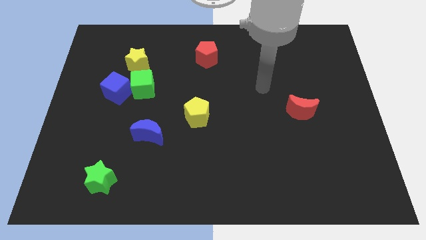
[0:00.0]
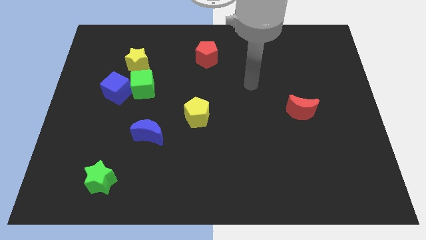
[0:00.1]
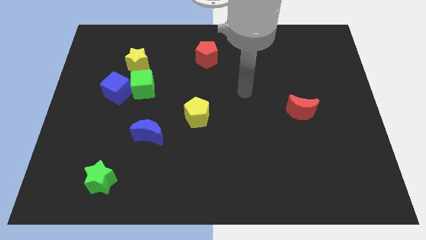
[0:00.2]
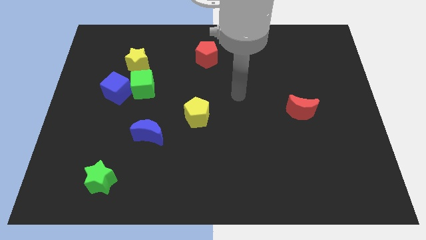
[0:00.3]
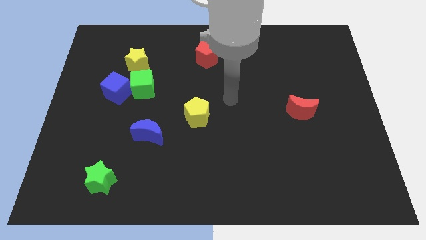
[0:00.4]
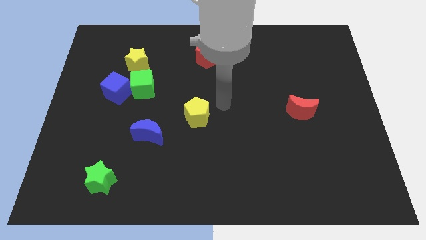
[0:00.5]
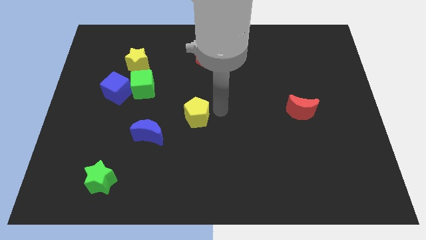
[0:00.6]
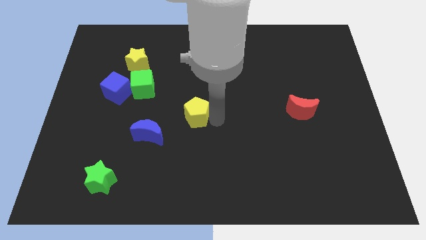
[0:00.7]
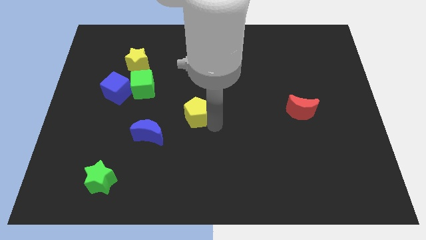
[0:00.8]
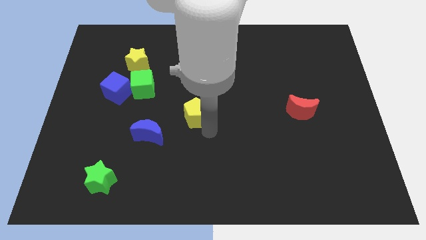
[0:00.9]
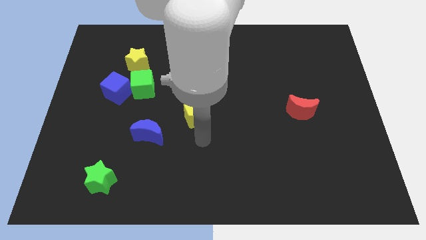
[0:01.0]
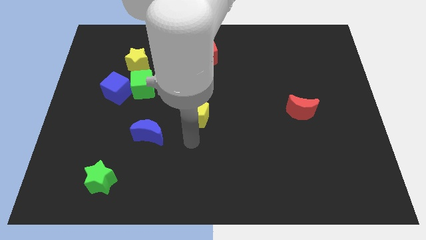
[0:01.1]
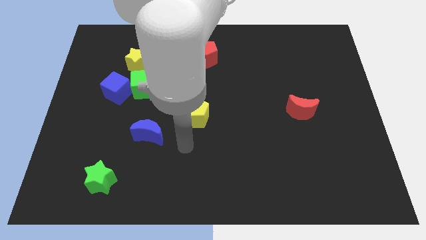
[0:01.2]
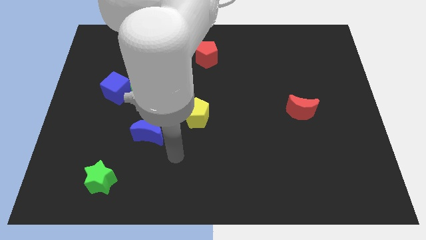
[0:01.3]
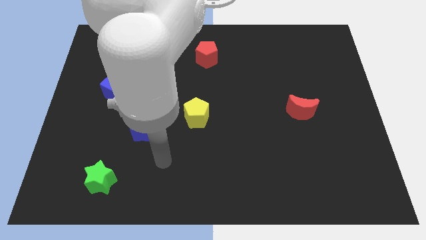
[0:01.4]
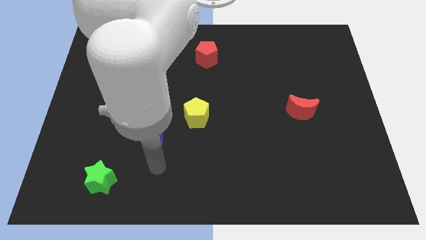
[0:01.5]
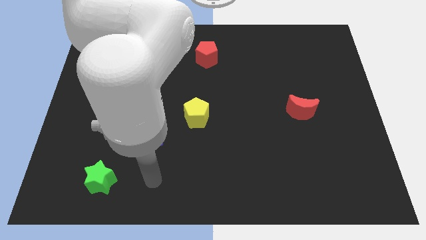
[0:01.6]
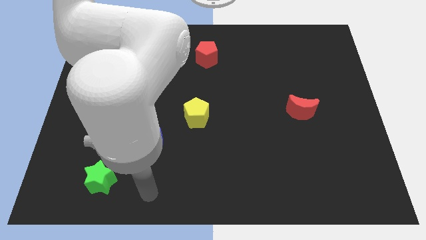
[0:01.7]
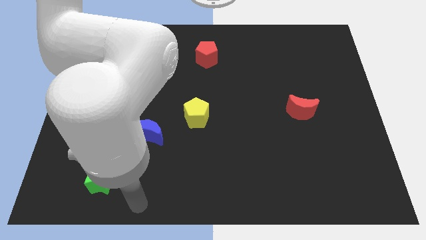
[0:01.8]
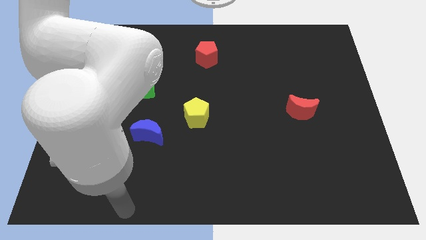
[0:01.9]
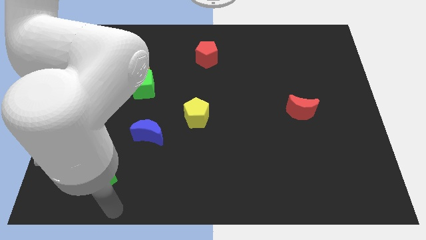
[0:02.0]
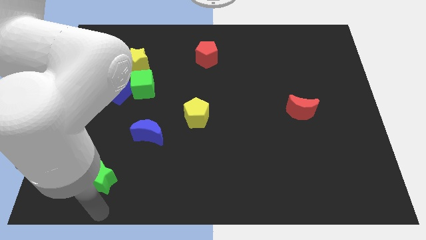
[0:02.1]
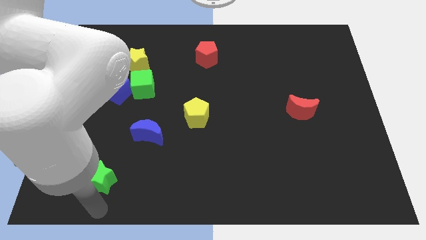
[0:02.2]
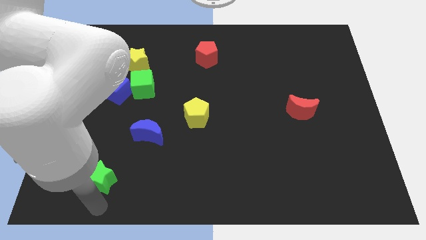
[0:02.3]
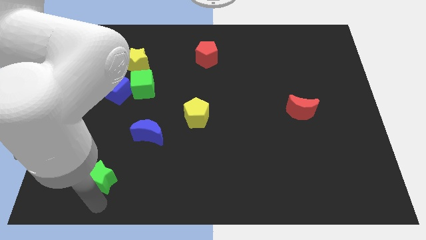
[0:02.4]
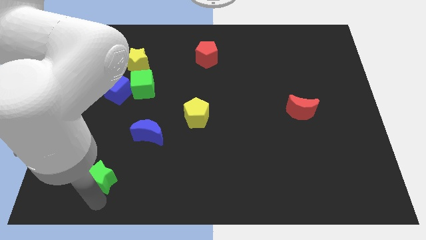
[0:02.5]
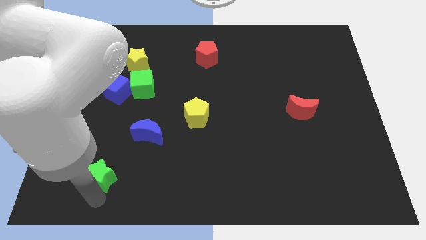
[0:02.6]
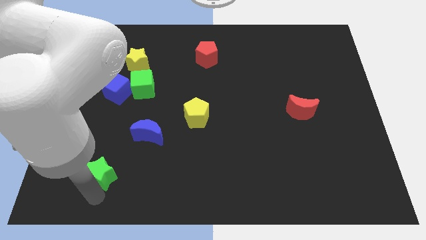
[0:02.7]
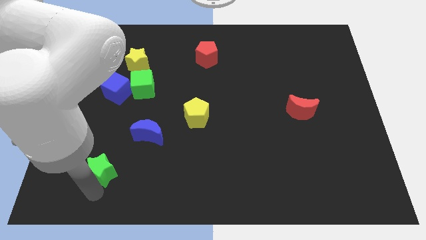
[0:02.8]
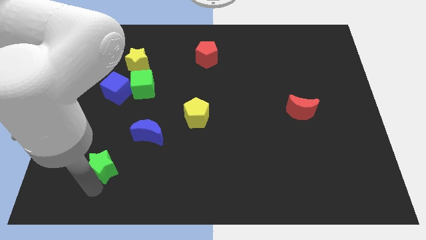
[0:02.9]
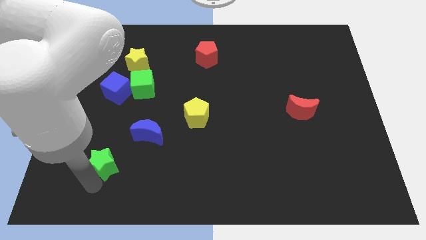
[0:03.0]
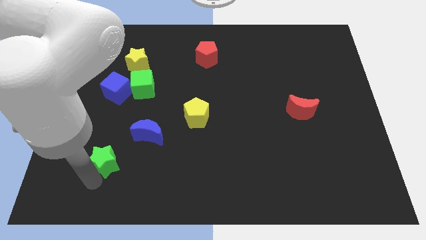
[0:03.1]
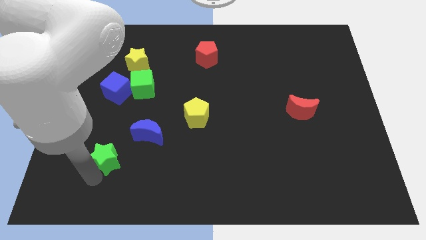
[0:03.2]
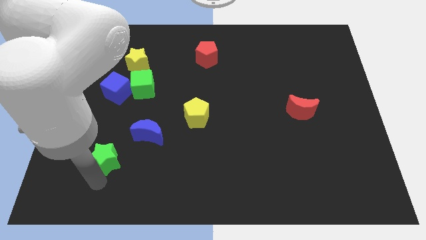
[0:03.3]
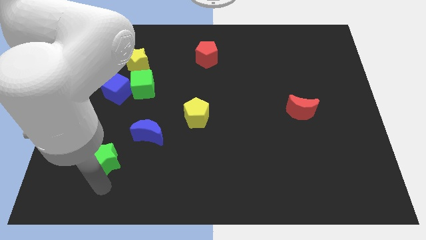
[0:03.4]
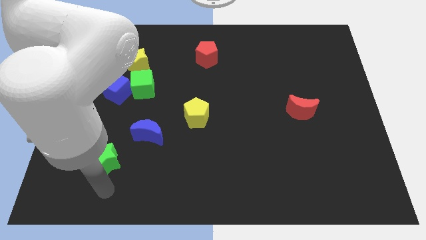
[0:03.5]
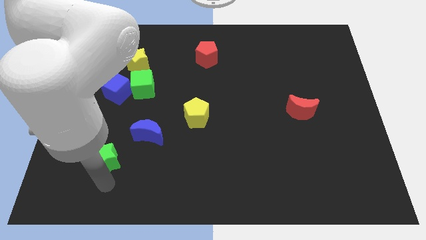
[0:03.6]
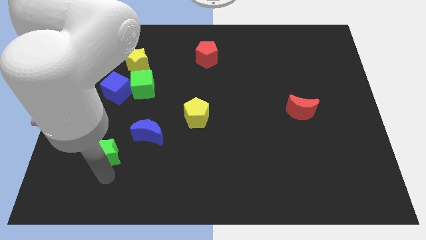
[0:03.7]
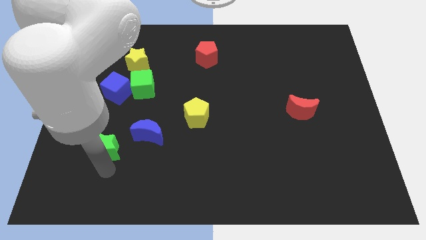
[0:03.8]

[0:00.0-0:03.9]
slide the green star upwards somewhat

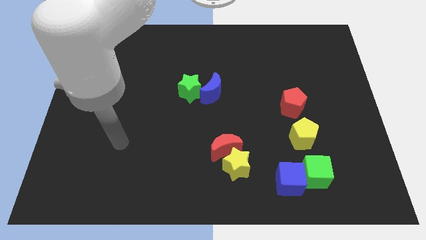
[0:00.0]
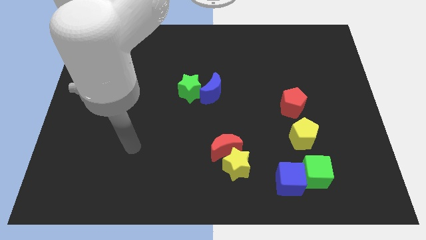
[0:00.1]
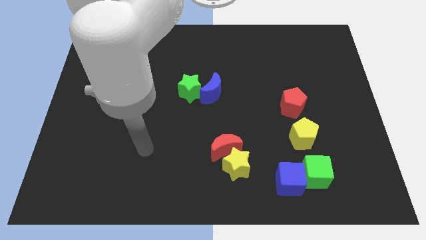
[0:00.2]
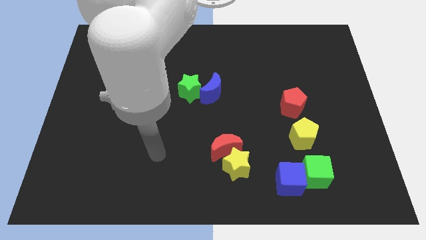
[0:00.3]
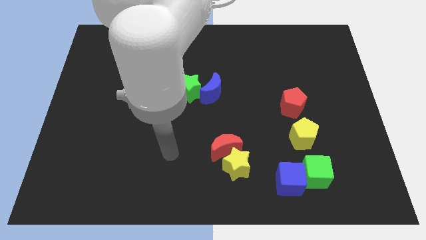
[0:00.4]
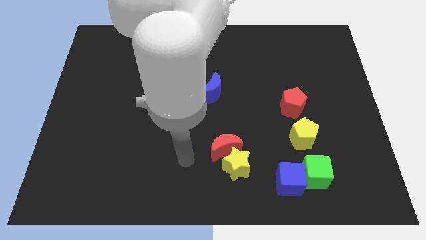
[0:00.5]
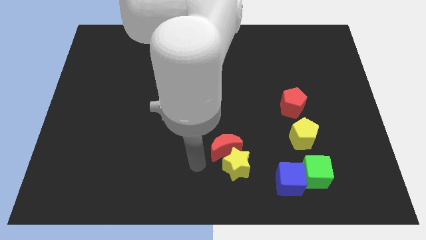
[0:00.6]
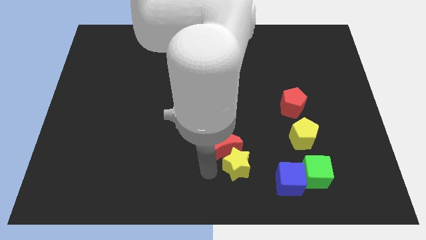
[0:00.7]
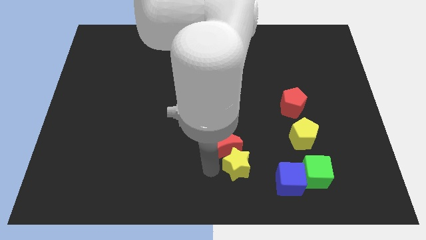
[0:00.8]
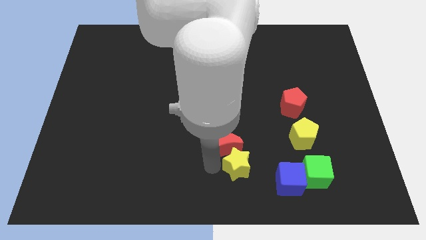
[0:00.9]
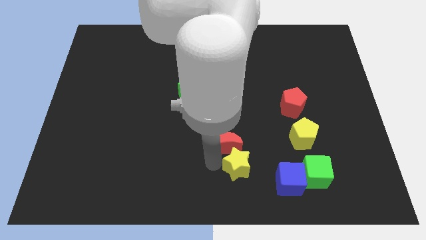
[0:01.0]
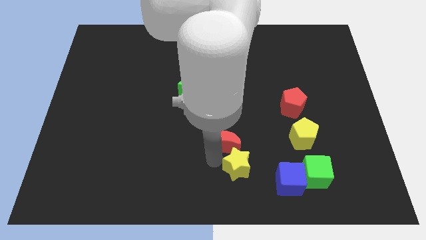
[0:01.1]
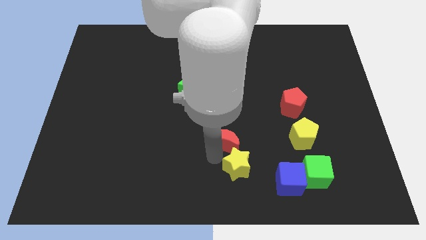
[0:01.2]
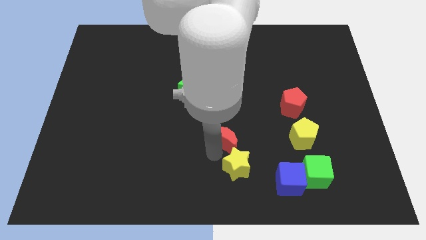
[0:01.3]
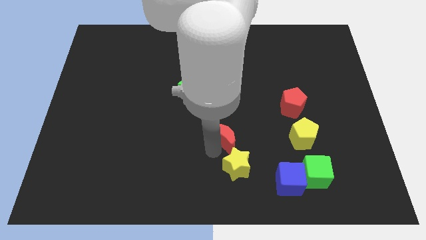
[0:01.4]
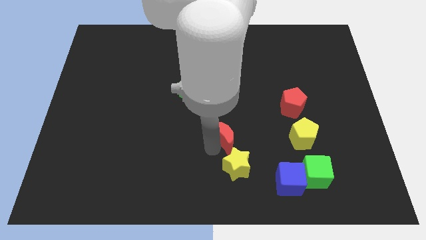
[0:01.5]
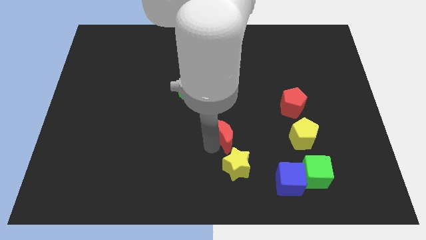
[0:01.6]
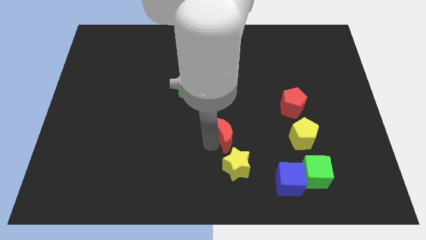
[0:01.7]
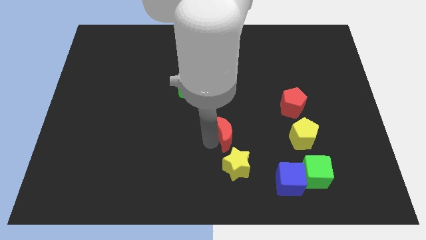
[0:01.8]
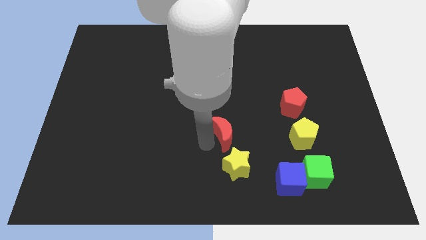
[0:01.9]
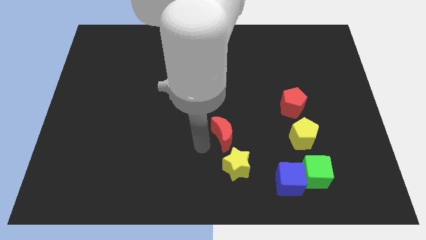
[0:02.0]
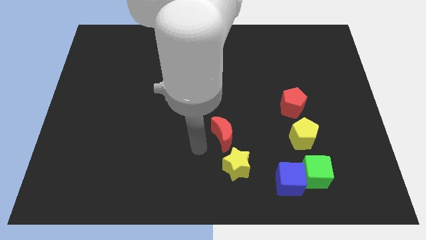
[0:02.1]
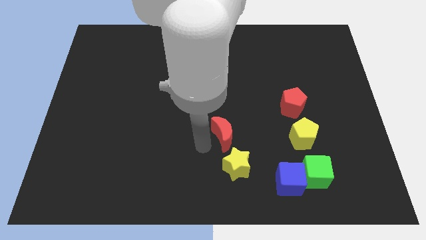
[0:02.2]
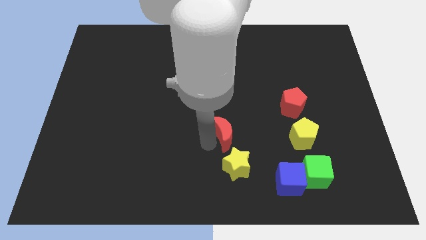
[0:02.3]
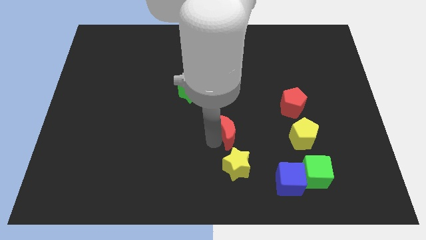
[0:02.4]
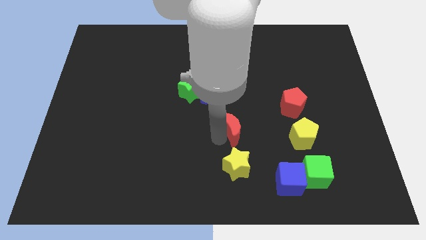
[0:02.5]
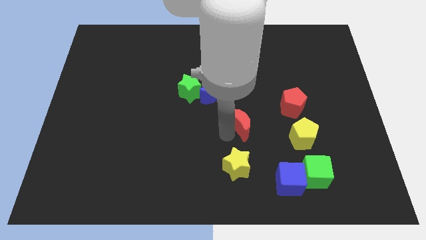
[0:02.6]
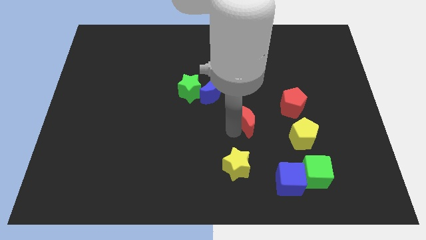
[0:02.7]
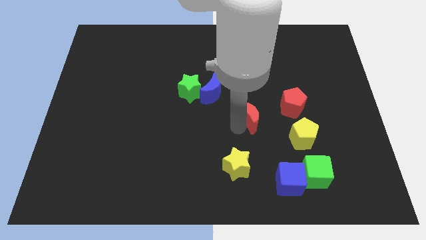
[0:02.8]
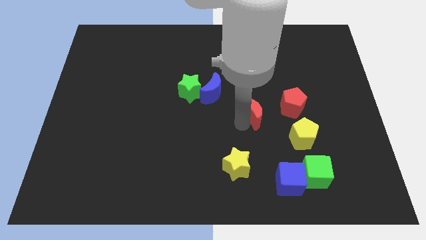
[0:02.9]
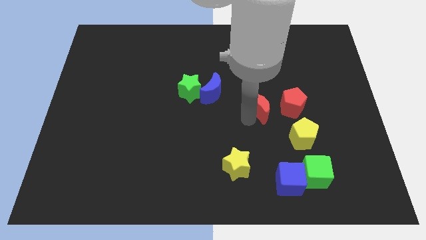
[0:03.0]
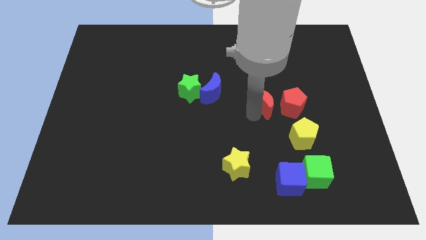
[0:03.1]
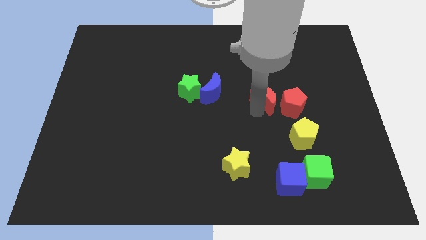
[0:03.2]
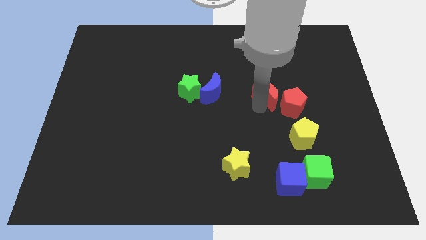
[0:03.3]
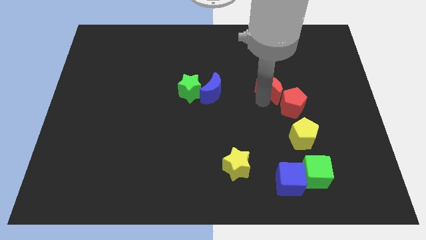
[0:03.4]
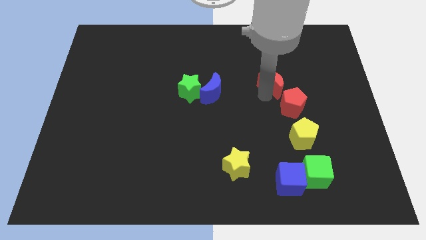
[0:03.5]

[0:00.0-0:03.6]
slide the red moon diagonally up and to the right

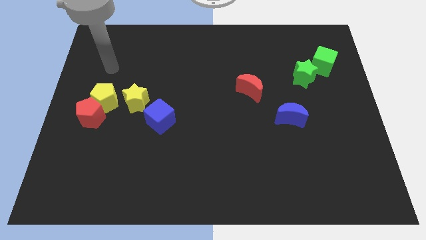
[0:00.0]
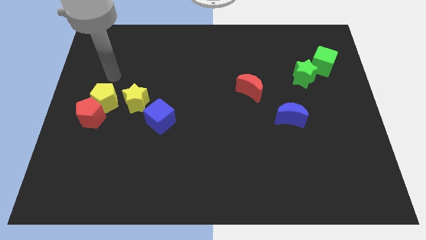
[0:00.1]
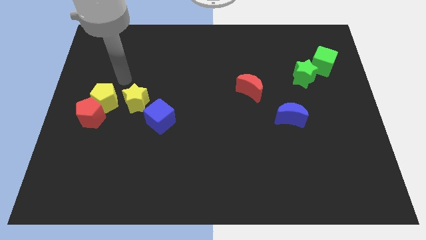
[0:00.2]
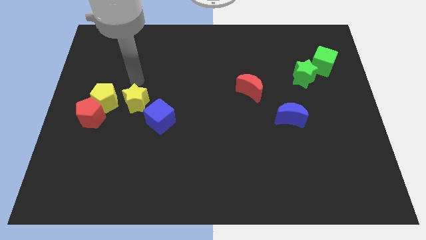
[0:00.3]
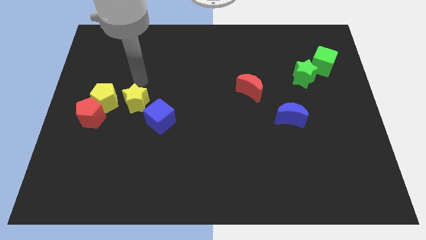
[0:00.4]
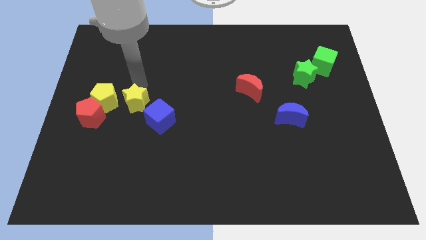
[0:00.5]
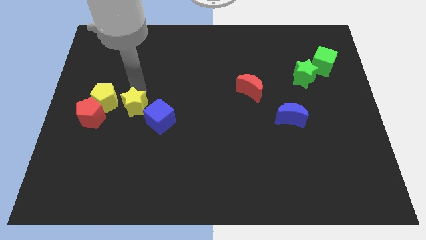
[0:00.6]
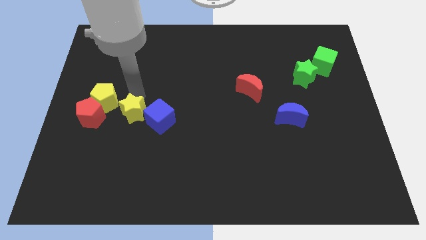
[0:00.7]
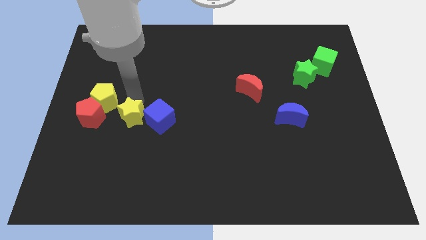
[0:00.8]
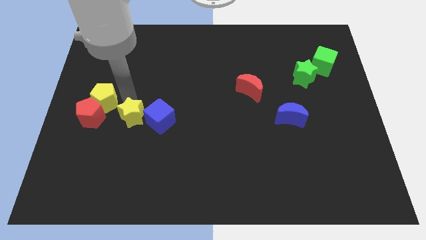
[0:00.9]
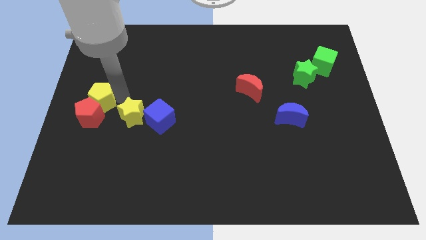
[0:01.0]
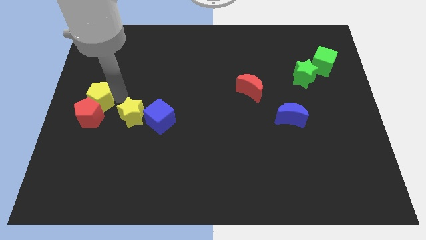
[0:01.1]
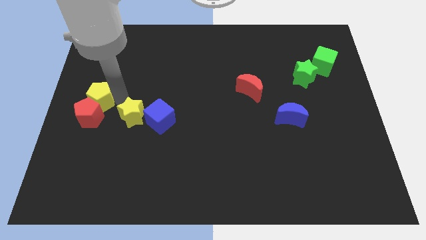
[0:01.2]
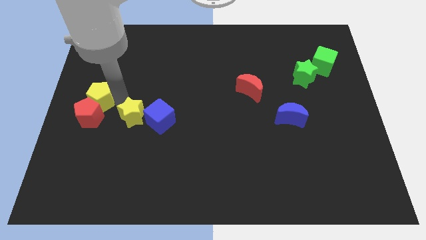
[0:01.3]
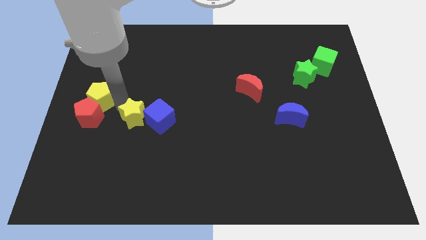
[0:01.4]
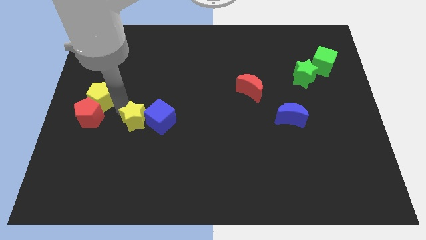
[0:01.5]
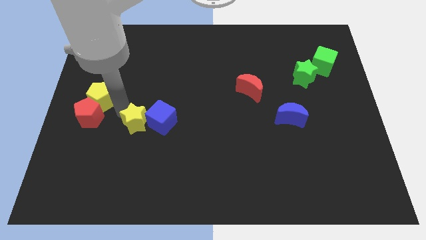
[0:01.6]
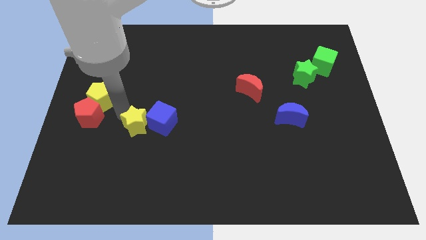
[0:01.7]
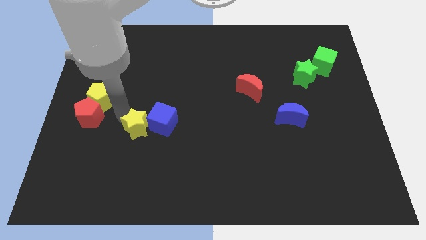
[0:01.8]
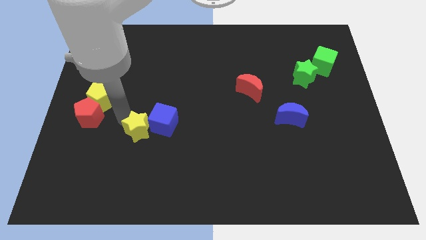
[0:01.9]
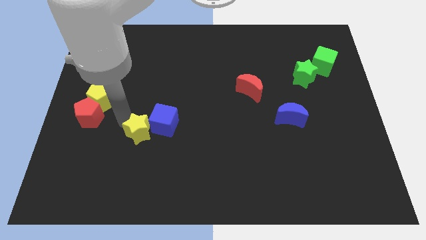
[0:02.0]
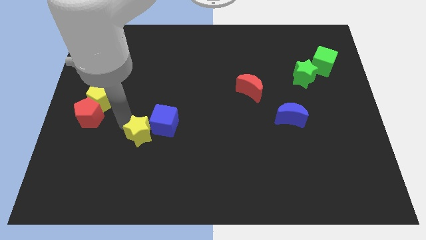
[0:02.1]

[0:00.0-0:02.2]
move the yellow star slightly downwards and right
